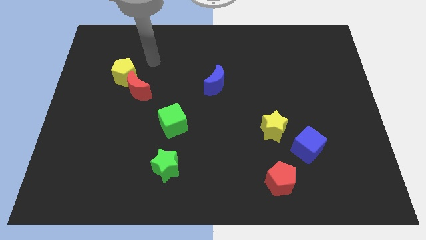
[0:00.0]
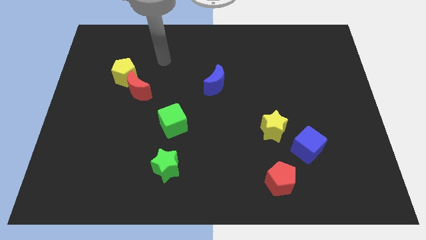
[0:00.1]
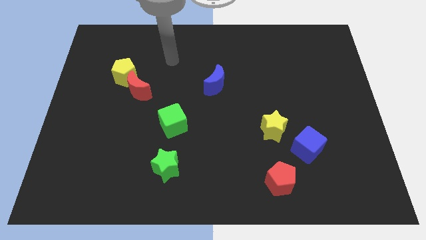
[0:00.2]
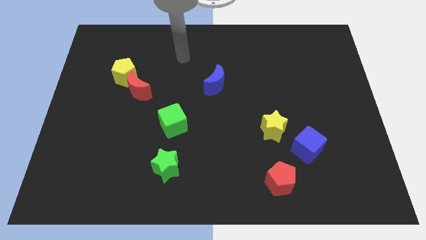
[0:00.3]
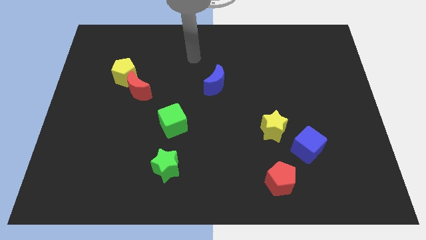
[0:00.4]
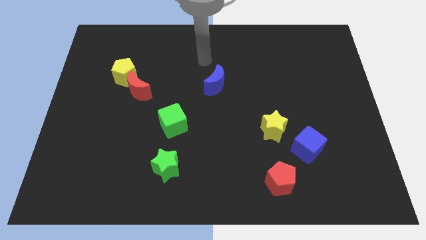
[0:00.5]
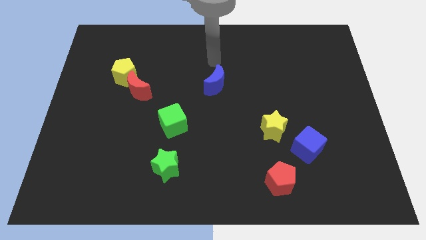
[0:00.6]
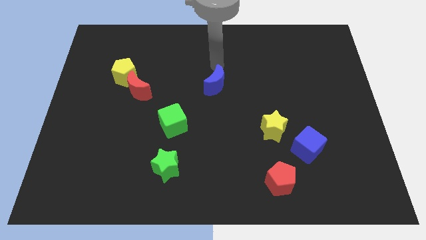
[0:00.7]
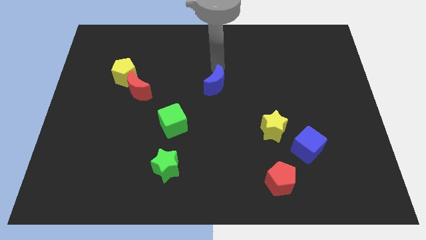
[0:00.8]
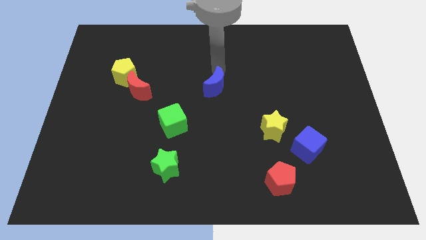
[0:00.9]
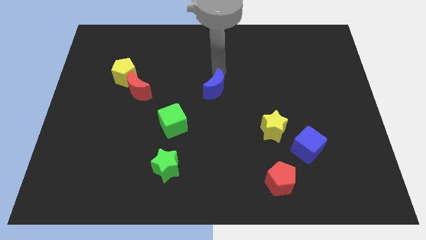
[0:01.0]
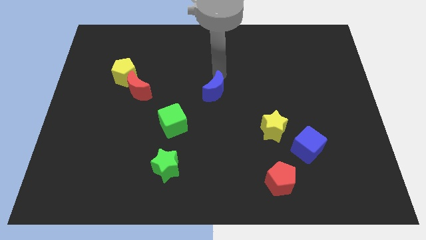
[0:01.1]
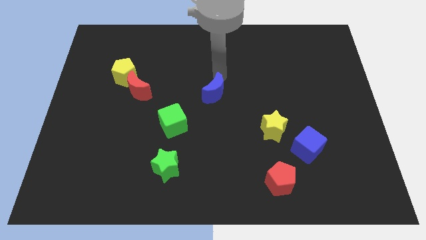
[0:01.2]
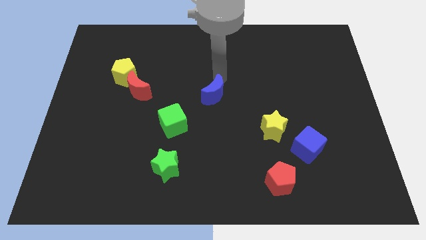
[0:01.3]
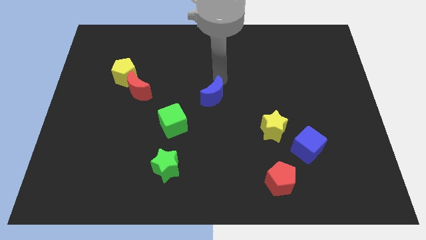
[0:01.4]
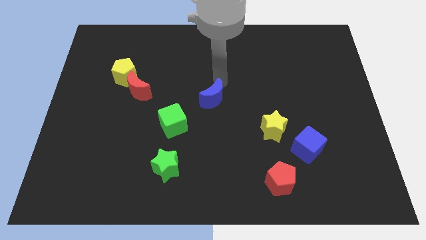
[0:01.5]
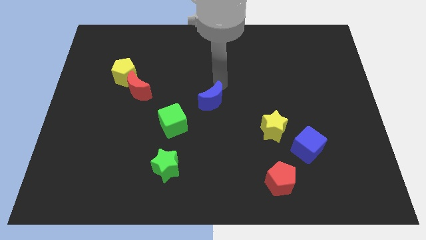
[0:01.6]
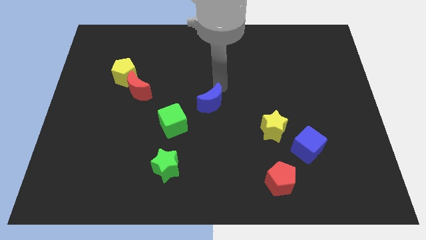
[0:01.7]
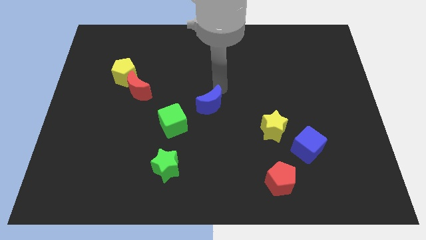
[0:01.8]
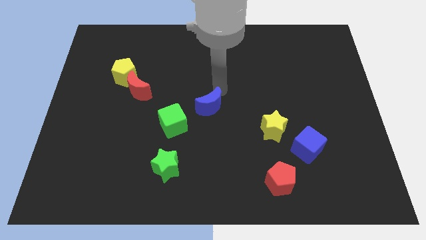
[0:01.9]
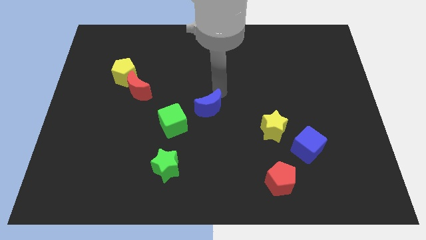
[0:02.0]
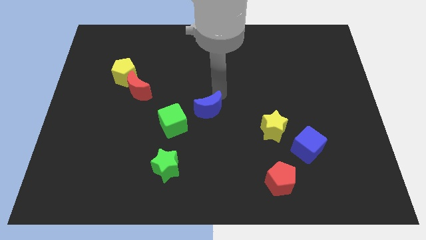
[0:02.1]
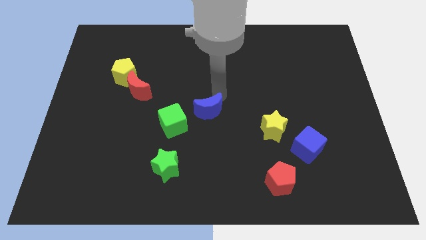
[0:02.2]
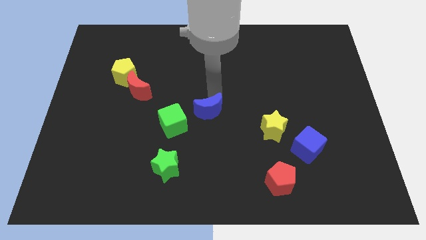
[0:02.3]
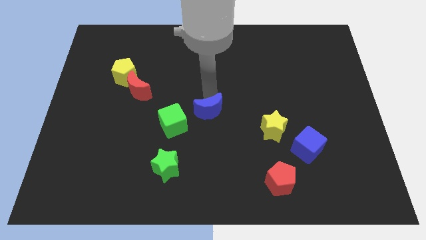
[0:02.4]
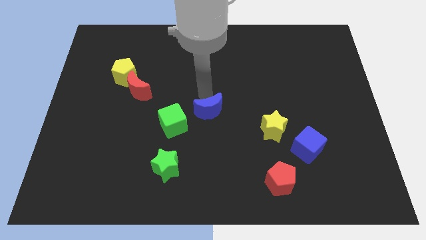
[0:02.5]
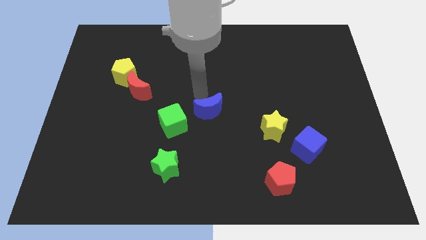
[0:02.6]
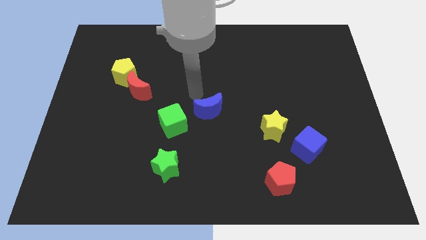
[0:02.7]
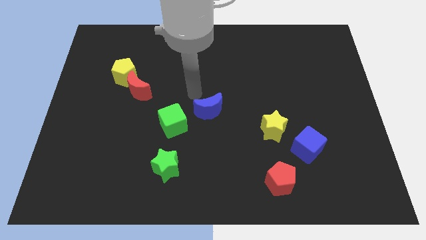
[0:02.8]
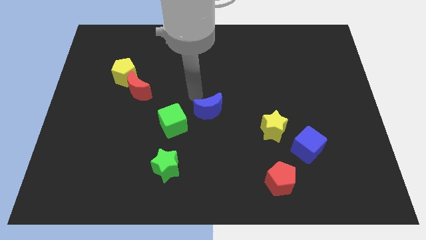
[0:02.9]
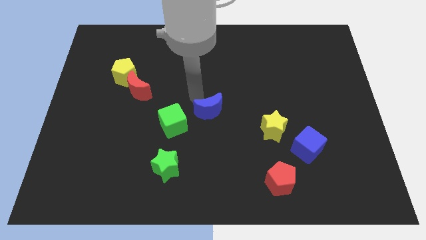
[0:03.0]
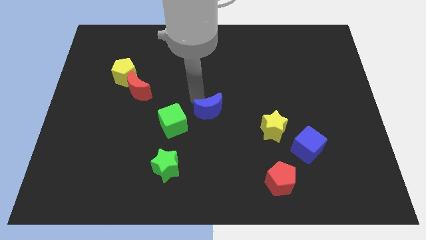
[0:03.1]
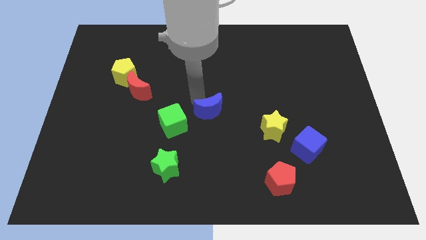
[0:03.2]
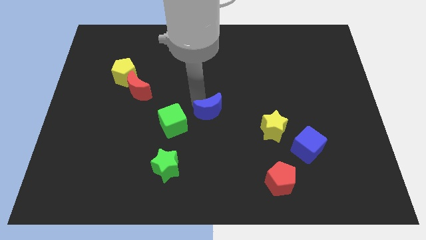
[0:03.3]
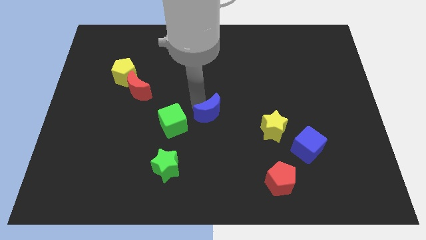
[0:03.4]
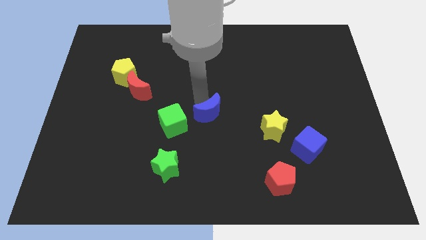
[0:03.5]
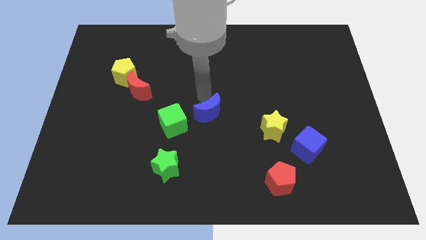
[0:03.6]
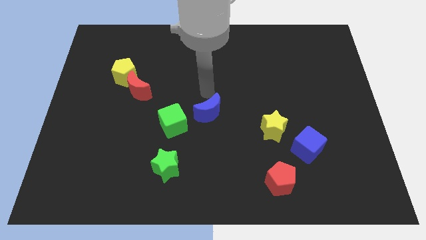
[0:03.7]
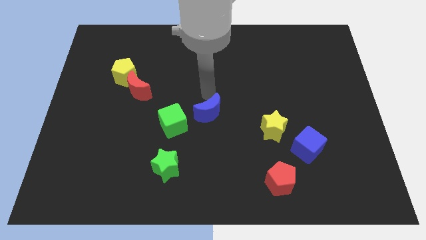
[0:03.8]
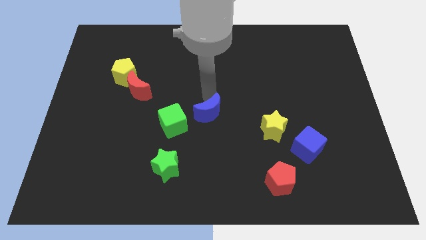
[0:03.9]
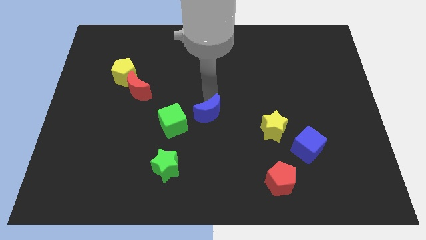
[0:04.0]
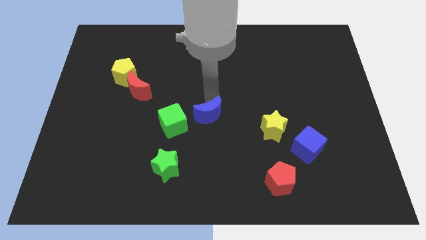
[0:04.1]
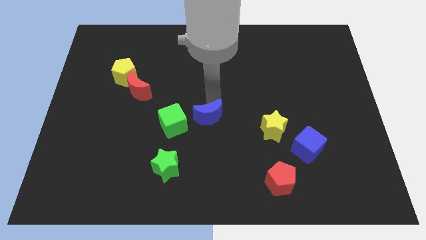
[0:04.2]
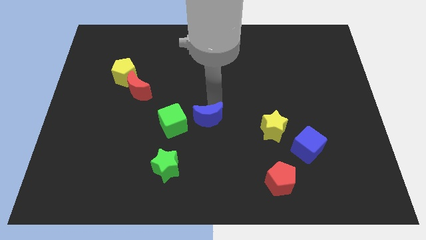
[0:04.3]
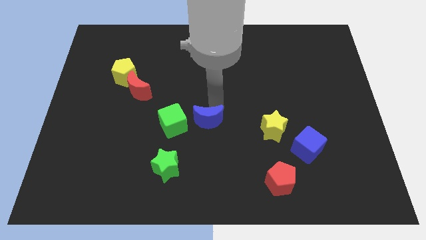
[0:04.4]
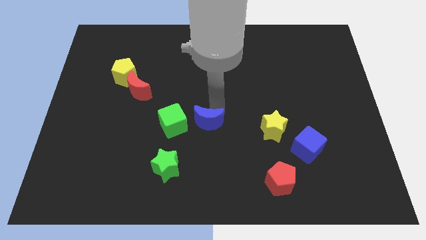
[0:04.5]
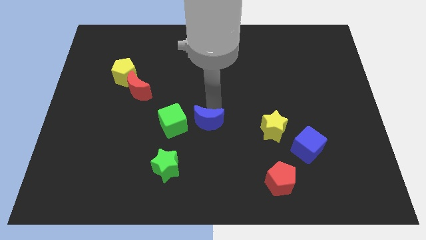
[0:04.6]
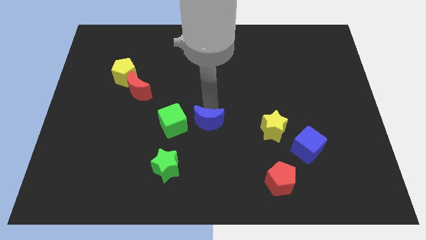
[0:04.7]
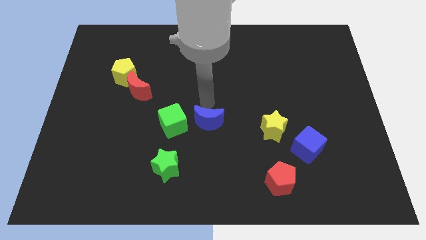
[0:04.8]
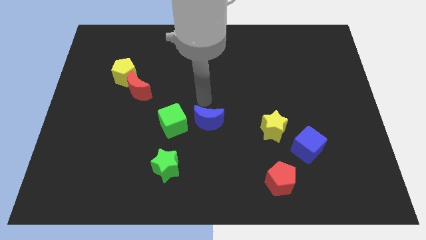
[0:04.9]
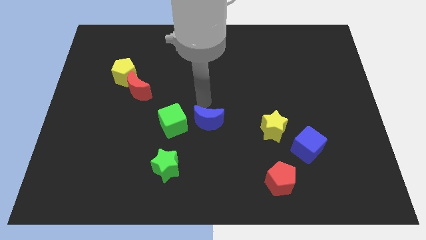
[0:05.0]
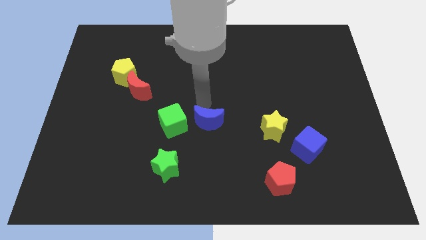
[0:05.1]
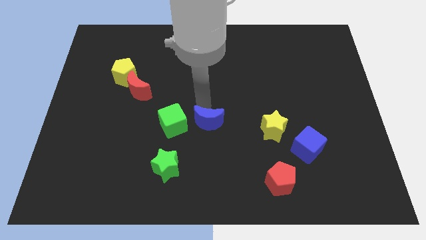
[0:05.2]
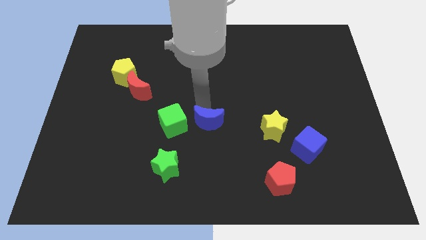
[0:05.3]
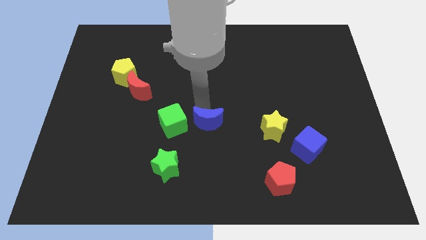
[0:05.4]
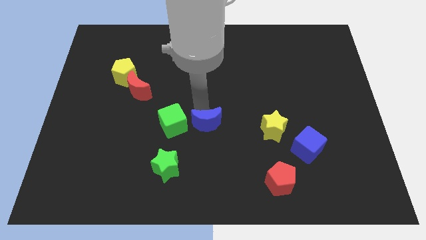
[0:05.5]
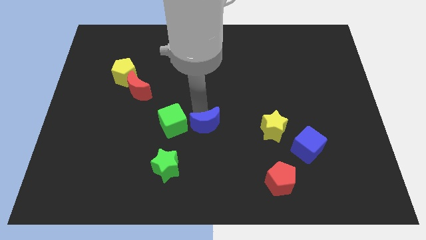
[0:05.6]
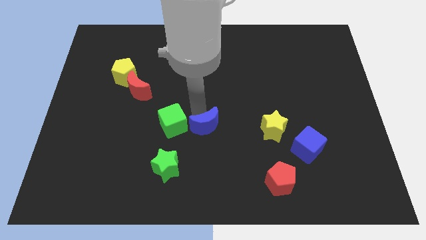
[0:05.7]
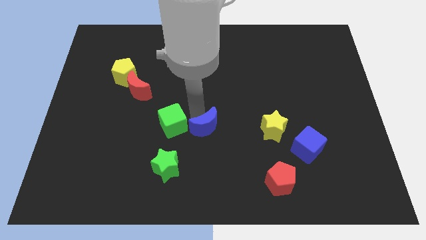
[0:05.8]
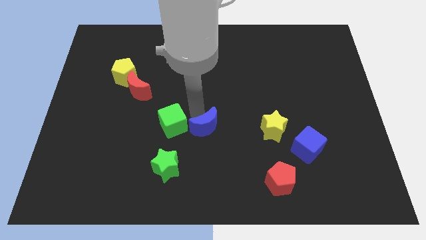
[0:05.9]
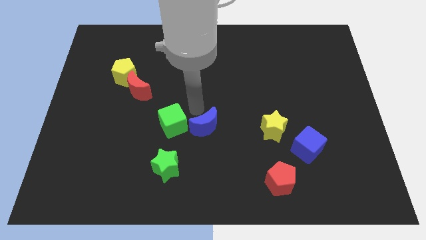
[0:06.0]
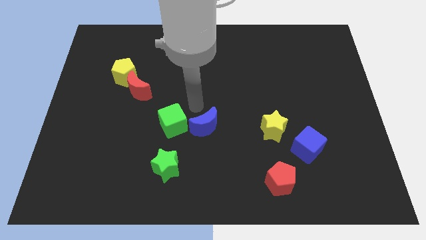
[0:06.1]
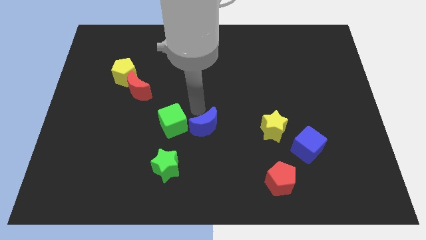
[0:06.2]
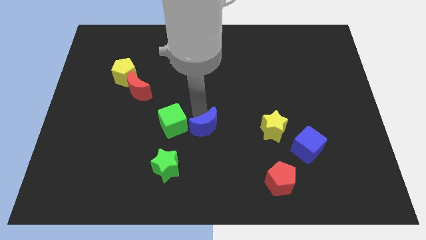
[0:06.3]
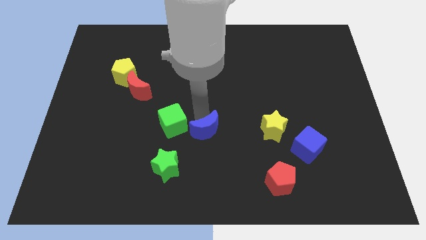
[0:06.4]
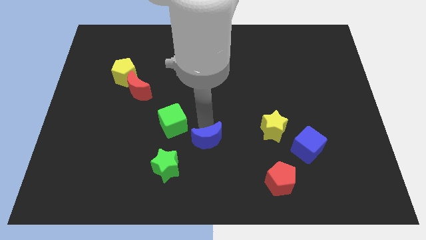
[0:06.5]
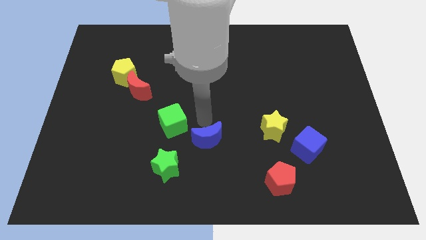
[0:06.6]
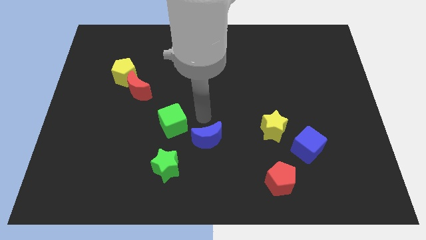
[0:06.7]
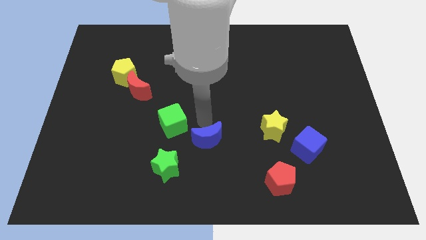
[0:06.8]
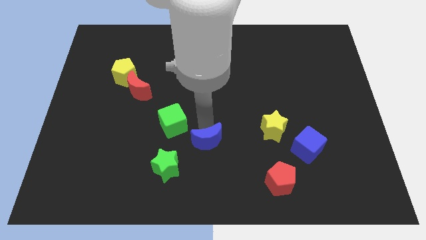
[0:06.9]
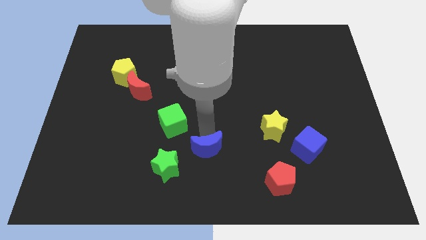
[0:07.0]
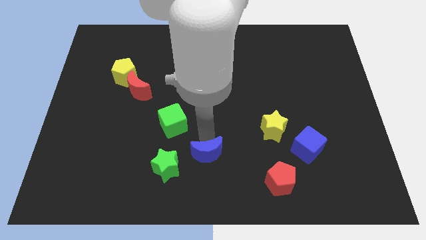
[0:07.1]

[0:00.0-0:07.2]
slide the blue moon to the bottom
